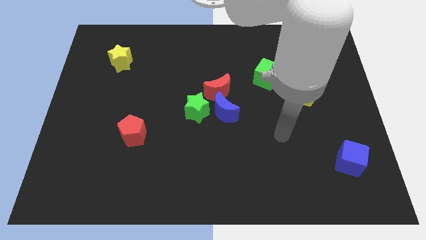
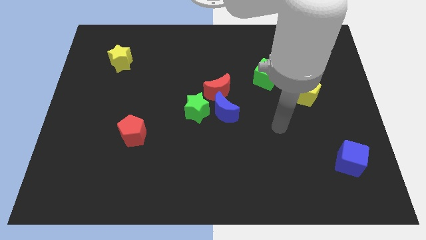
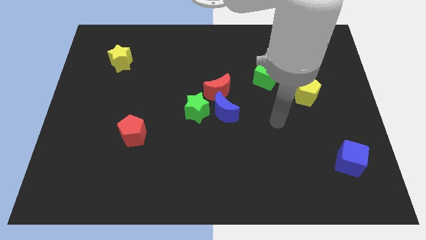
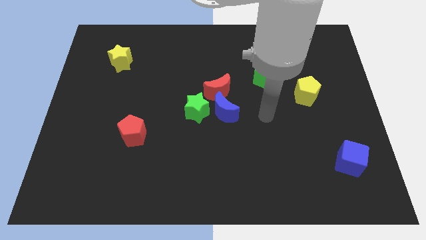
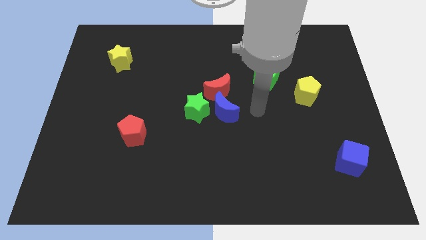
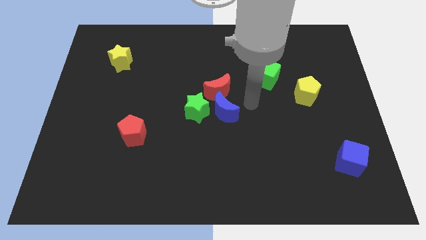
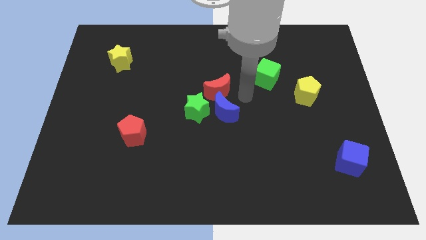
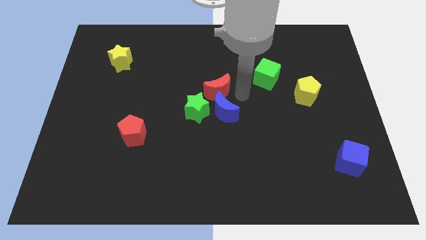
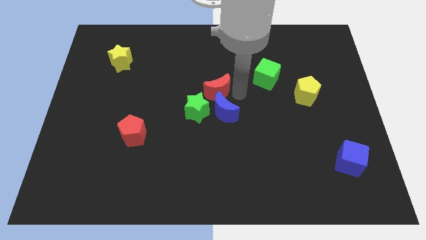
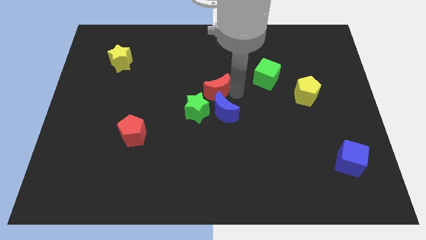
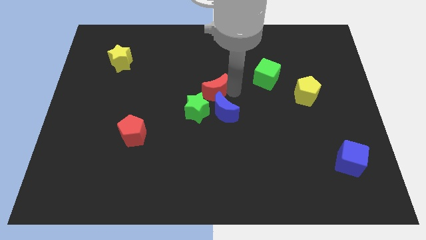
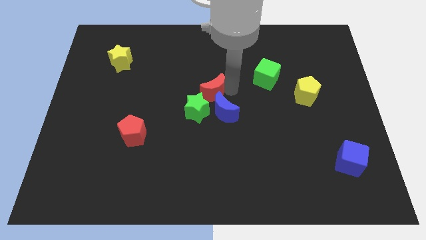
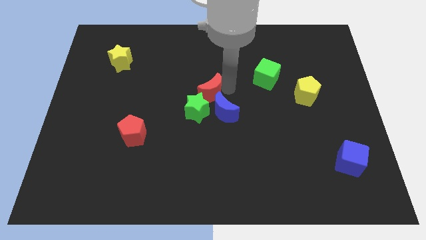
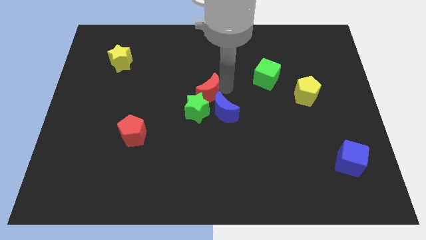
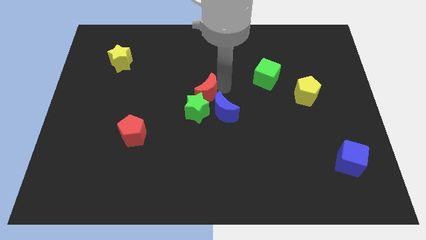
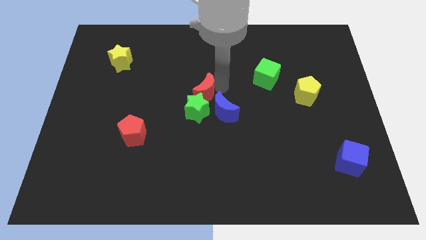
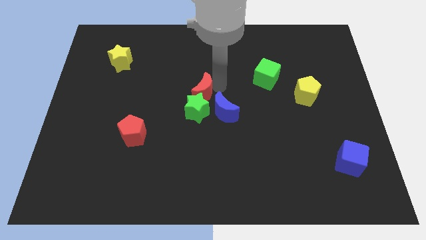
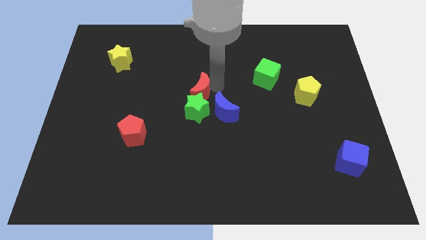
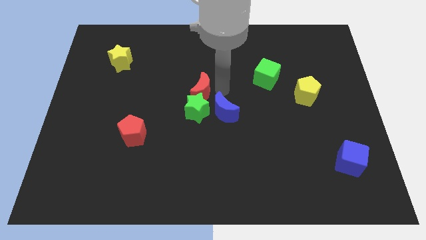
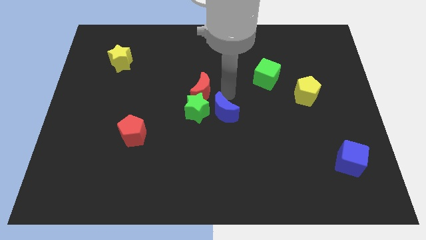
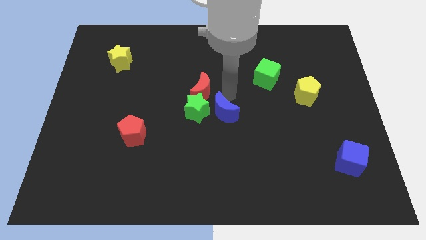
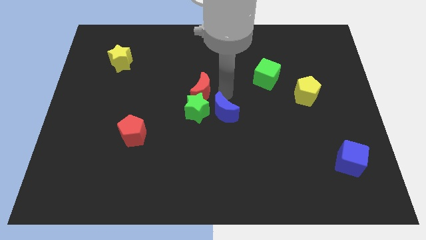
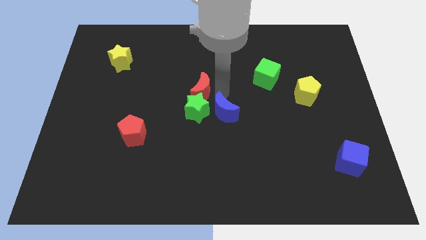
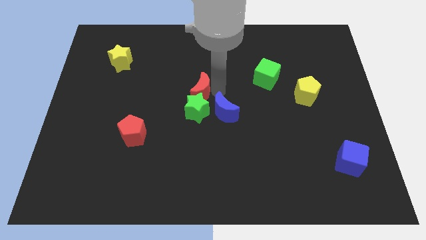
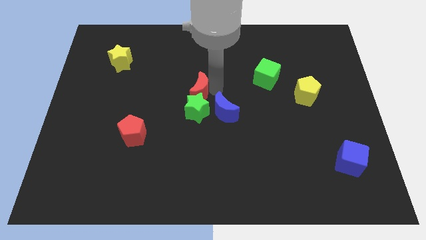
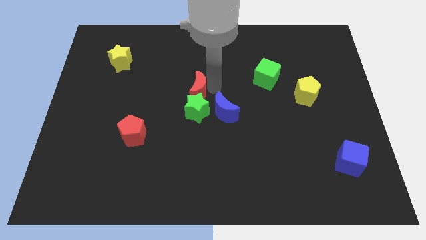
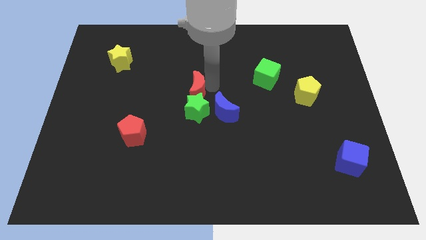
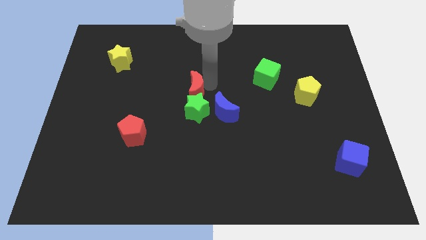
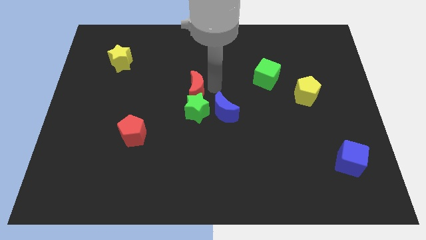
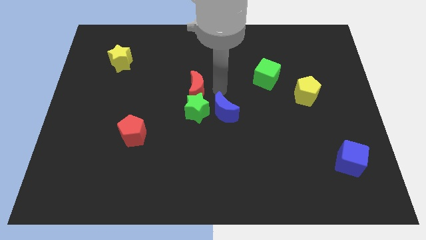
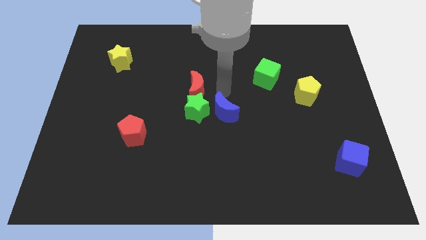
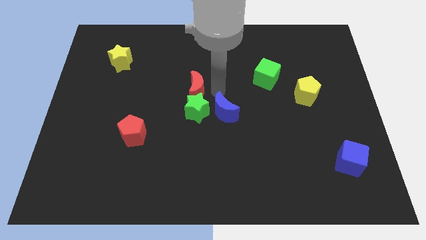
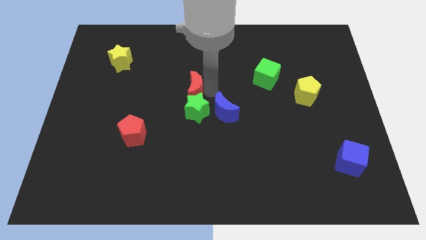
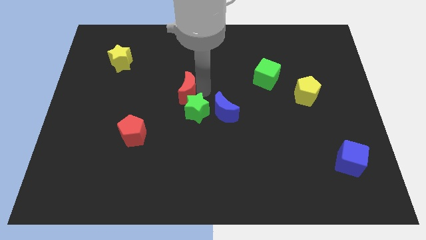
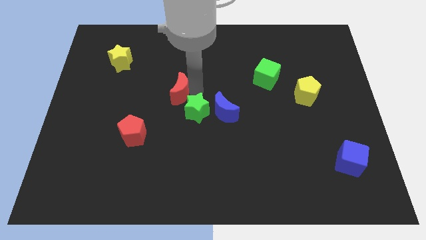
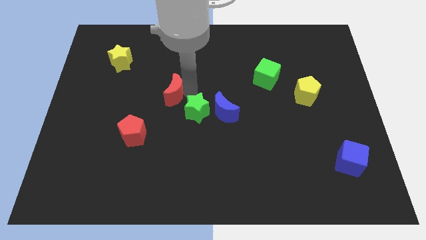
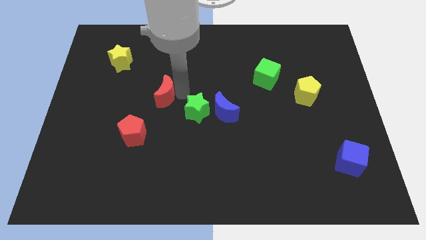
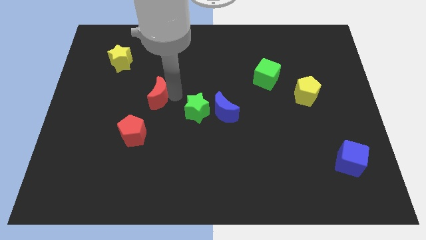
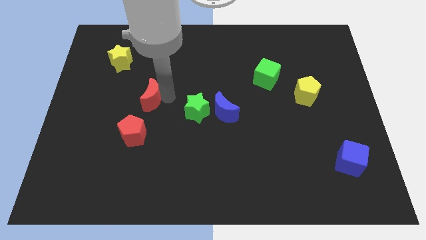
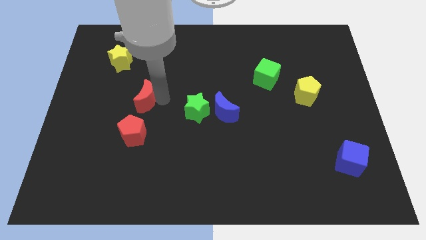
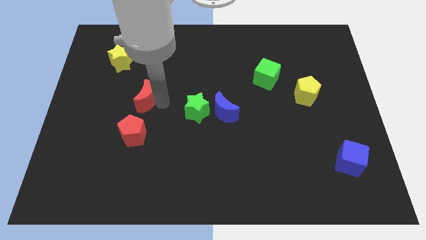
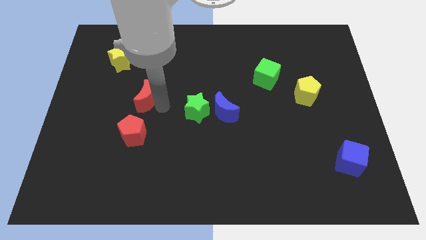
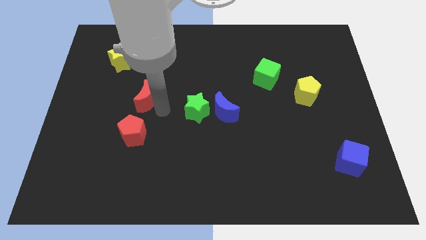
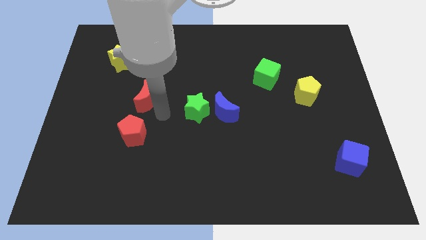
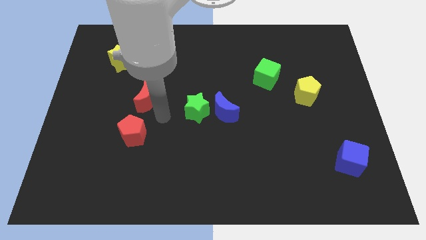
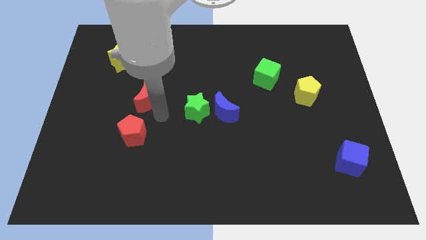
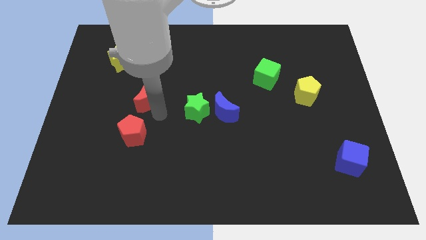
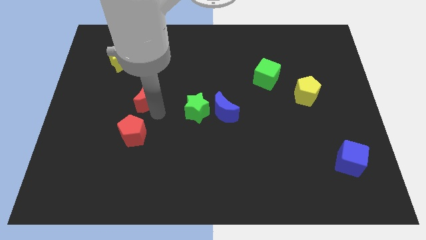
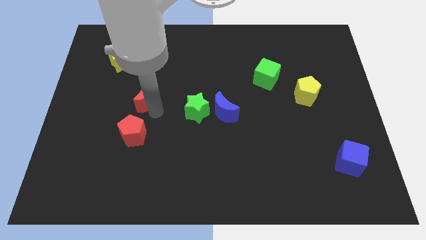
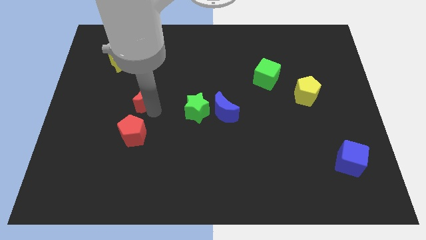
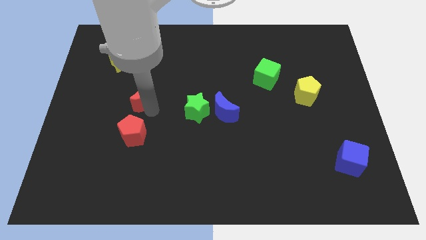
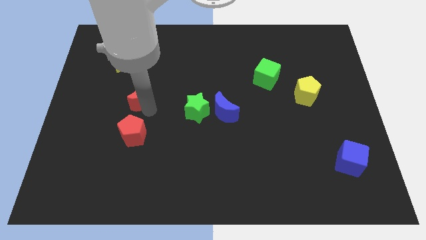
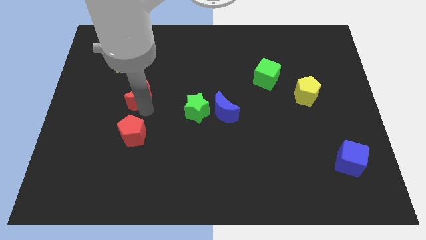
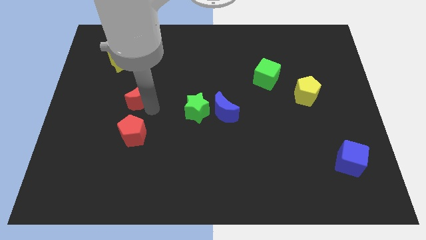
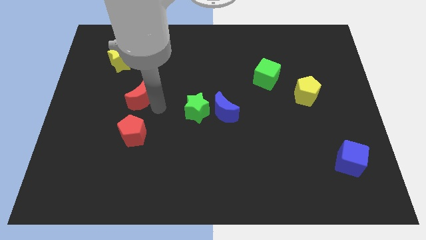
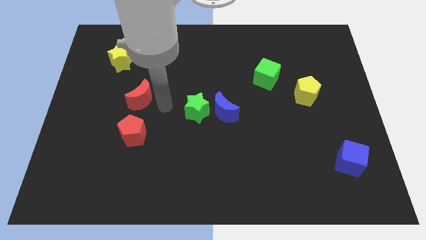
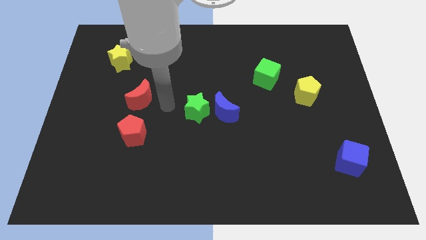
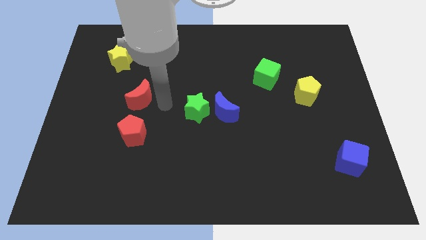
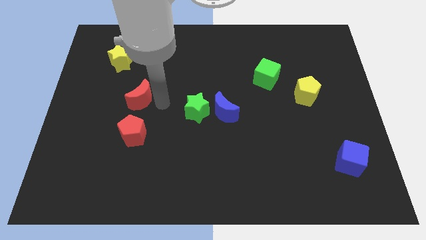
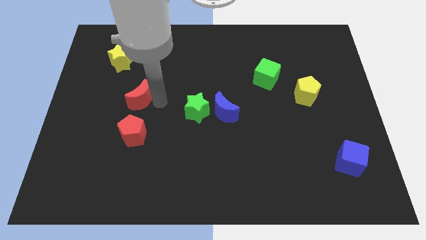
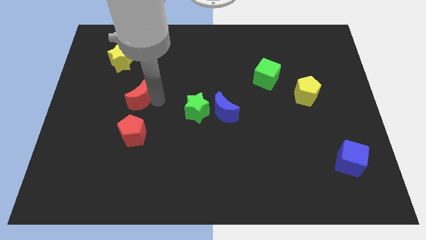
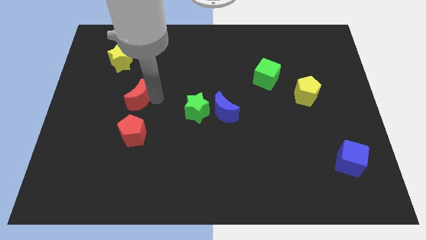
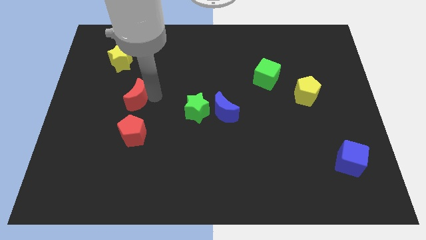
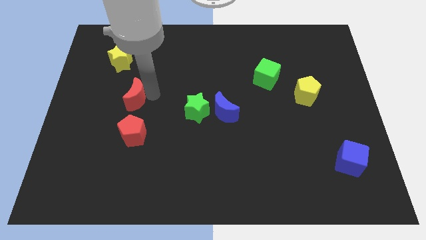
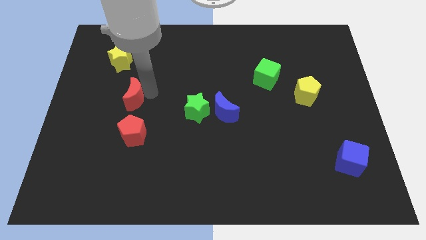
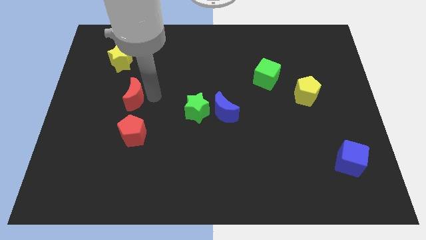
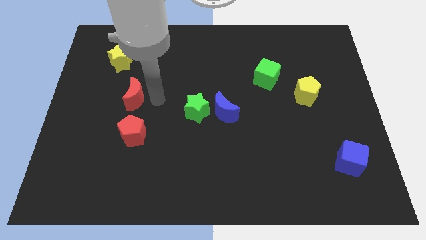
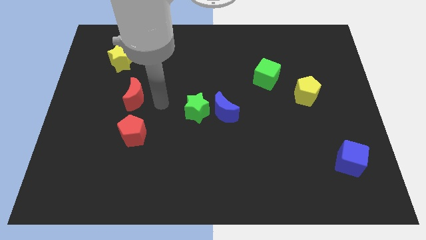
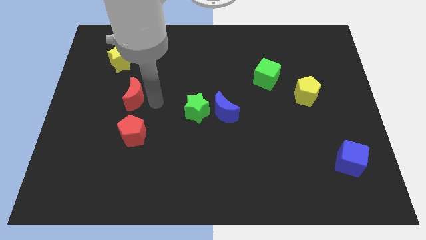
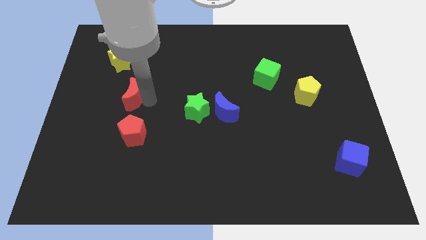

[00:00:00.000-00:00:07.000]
push the red moon below the yellow star
